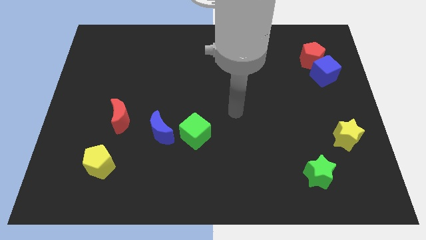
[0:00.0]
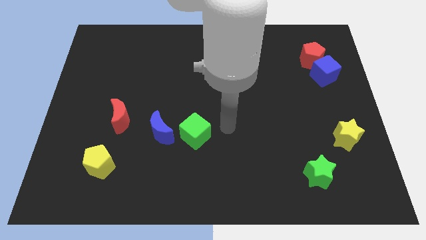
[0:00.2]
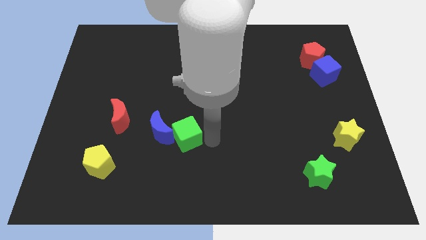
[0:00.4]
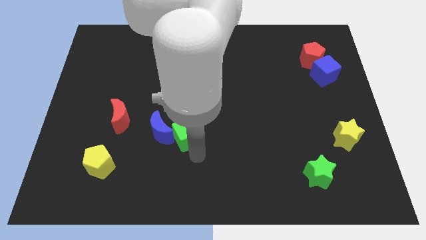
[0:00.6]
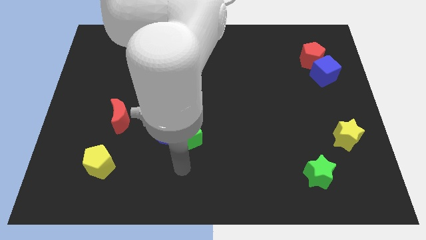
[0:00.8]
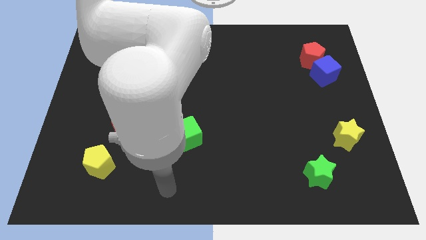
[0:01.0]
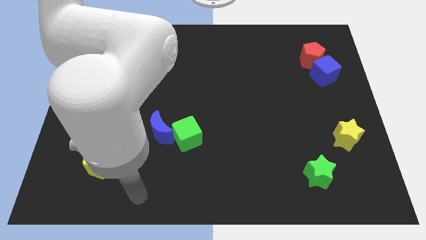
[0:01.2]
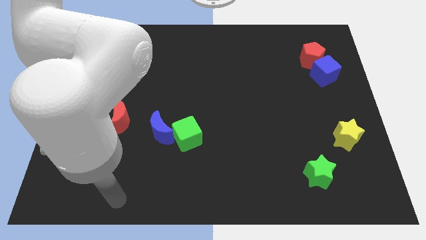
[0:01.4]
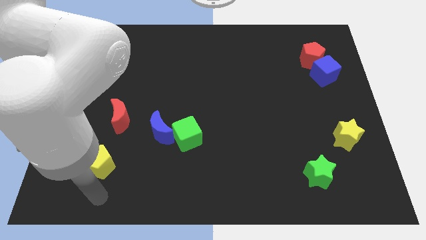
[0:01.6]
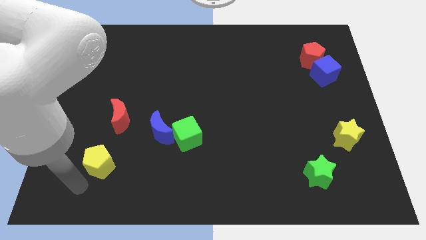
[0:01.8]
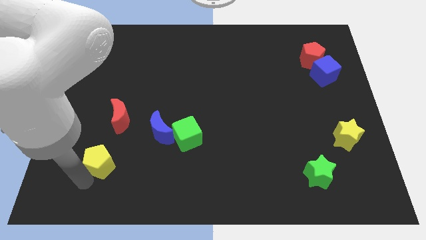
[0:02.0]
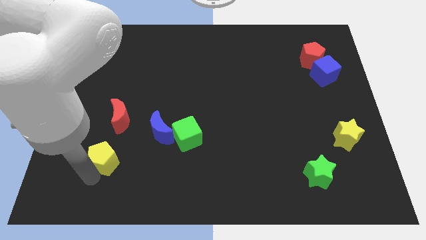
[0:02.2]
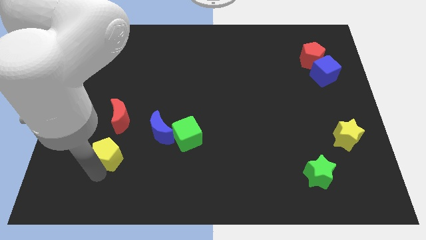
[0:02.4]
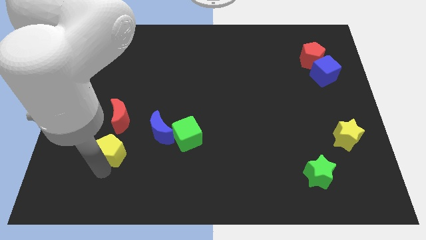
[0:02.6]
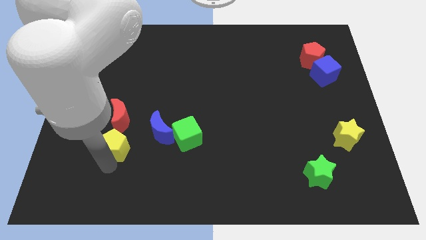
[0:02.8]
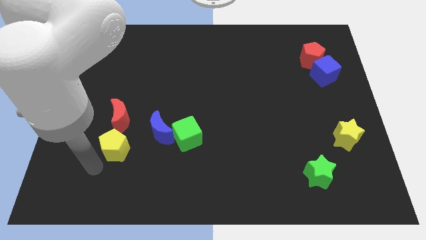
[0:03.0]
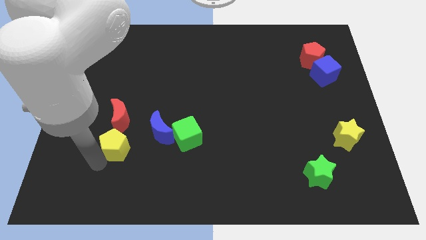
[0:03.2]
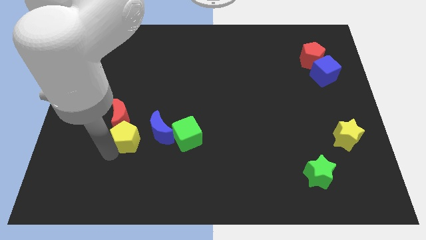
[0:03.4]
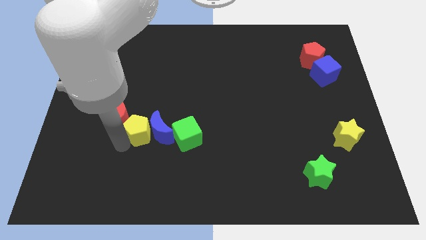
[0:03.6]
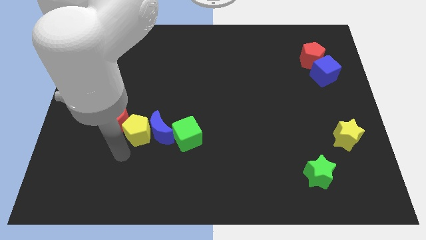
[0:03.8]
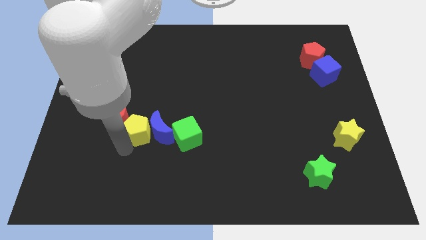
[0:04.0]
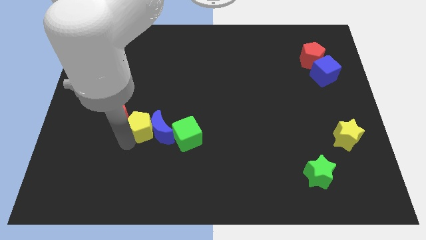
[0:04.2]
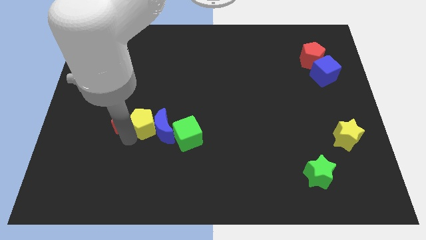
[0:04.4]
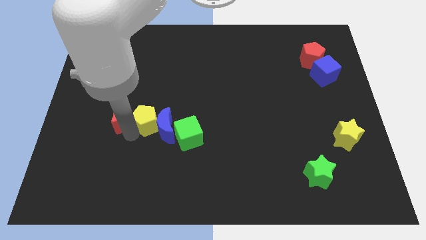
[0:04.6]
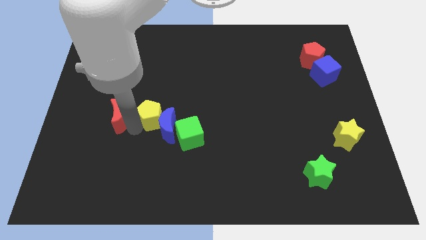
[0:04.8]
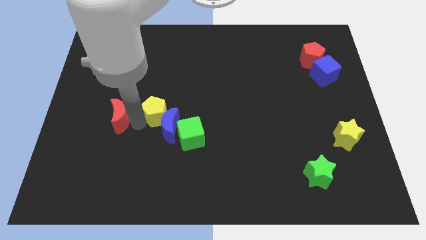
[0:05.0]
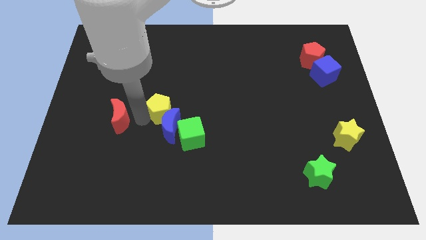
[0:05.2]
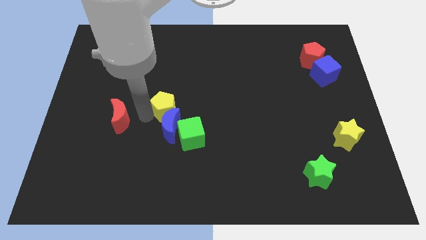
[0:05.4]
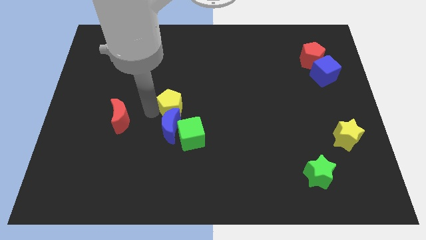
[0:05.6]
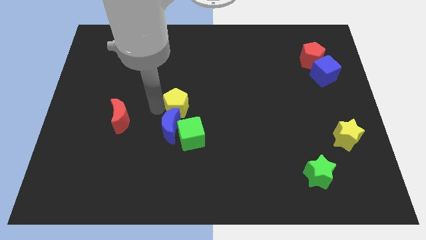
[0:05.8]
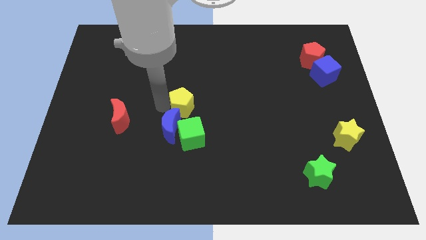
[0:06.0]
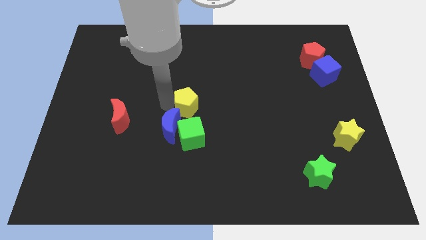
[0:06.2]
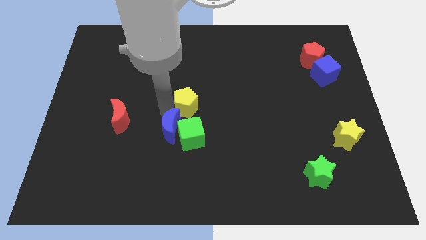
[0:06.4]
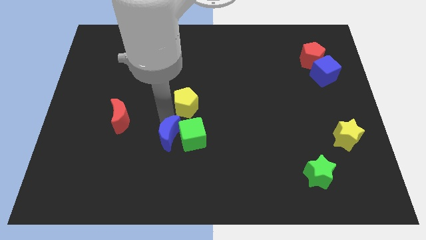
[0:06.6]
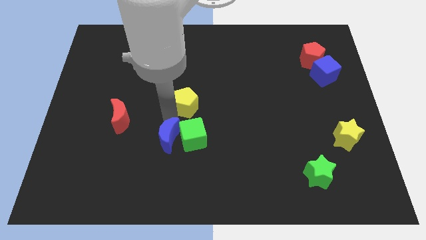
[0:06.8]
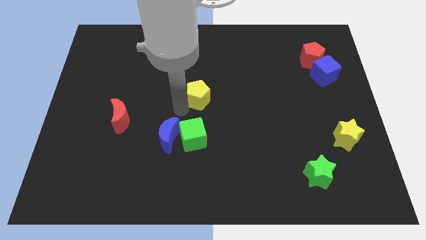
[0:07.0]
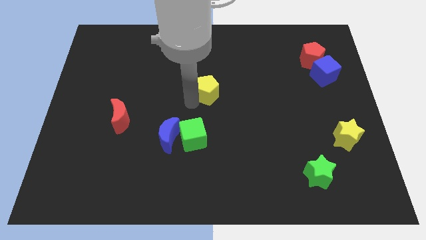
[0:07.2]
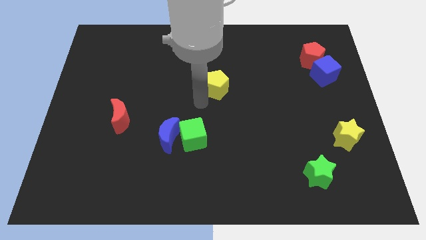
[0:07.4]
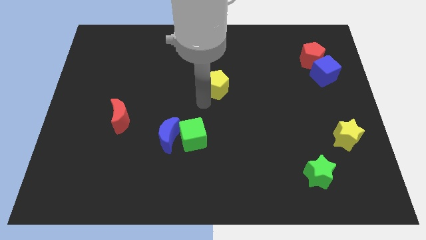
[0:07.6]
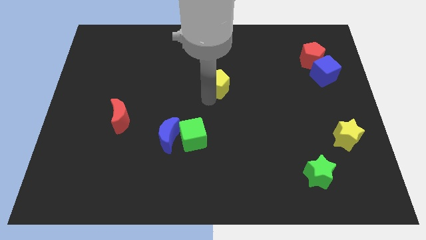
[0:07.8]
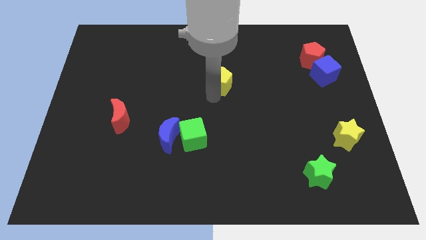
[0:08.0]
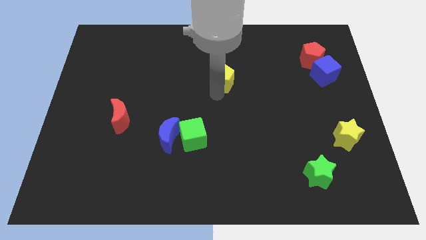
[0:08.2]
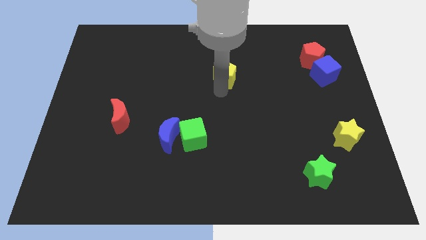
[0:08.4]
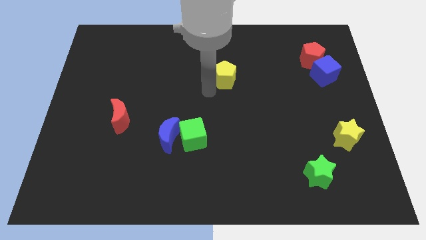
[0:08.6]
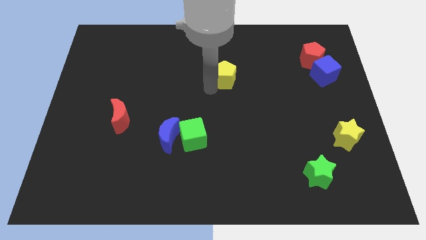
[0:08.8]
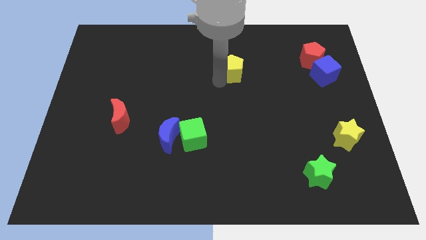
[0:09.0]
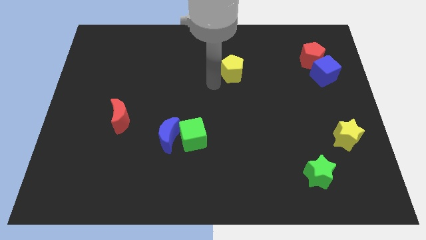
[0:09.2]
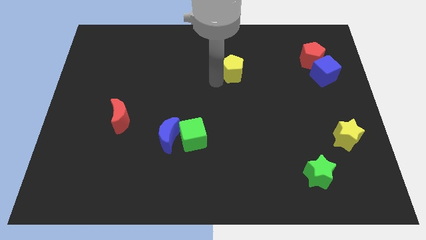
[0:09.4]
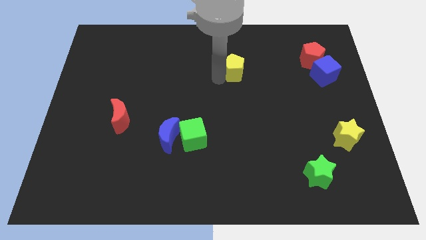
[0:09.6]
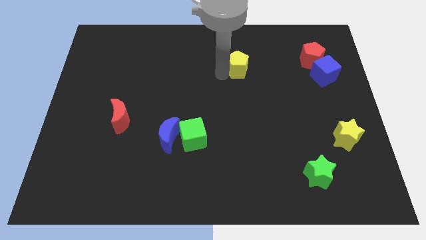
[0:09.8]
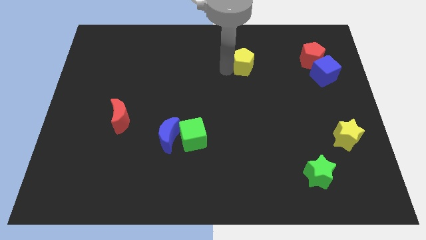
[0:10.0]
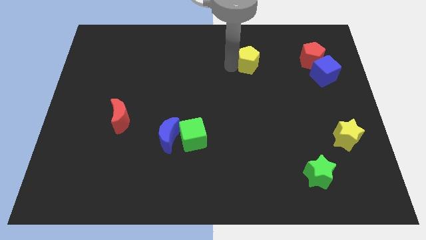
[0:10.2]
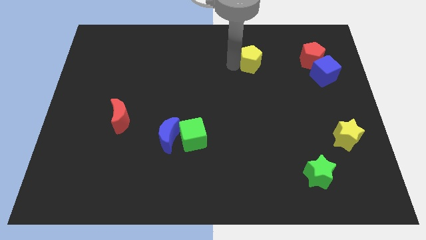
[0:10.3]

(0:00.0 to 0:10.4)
move the yellow pentagon just left of the red pentagon

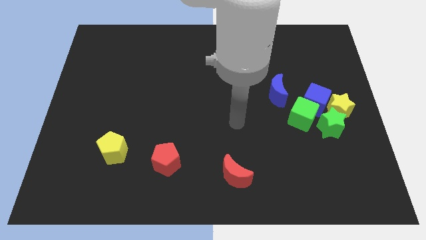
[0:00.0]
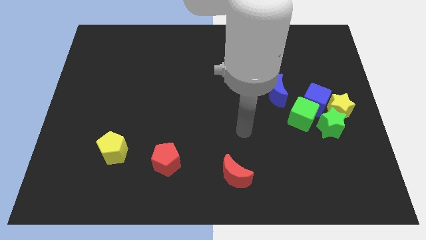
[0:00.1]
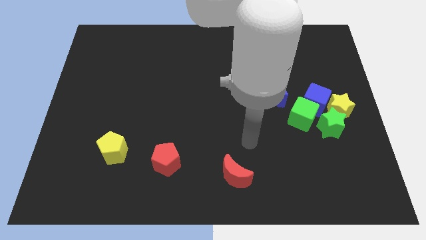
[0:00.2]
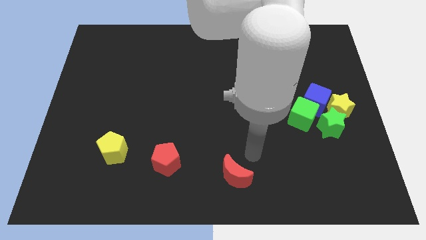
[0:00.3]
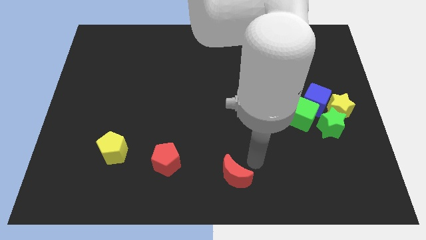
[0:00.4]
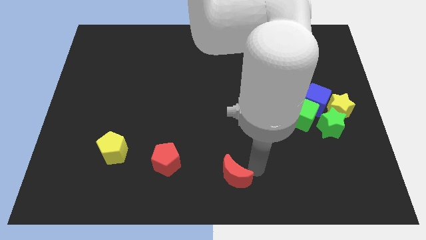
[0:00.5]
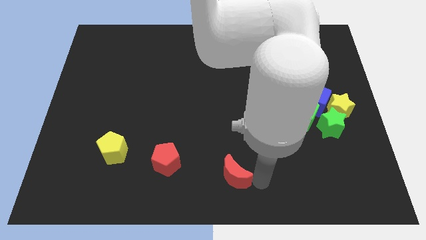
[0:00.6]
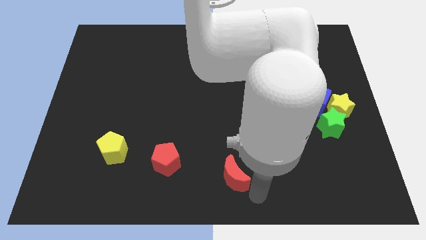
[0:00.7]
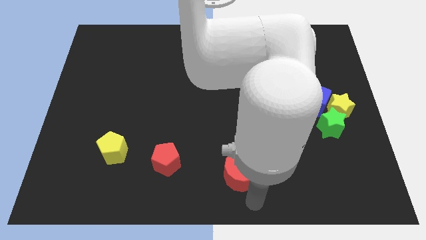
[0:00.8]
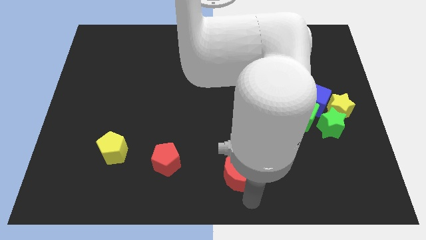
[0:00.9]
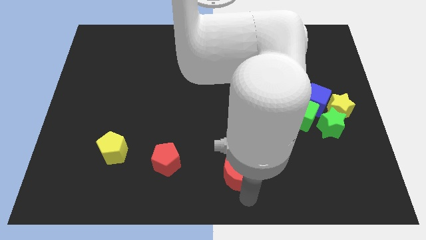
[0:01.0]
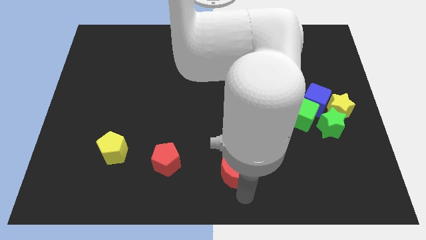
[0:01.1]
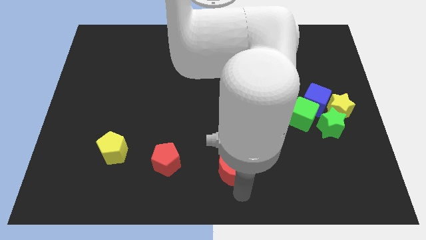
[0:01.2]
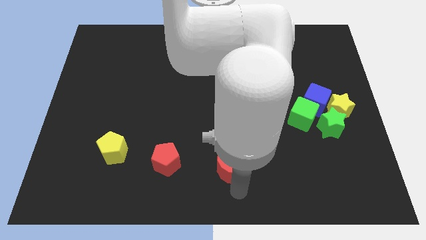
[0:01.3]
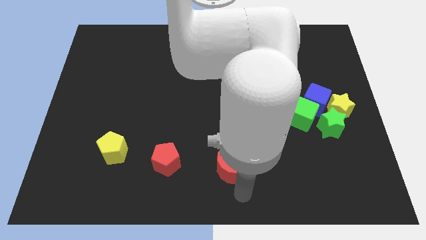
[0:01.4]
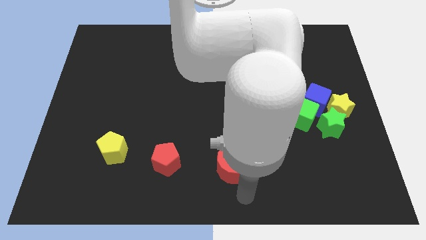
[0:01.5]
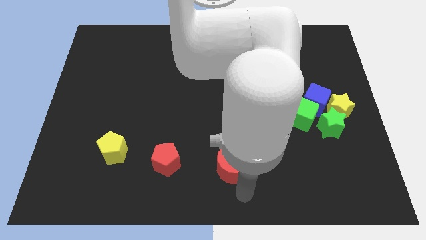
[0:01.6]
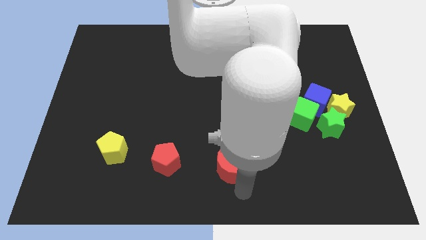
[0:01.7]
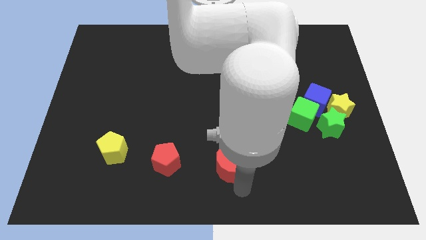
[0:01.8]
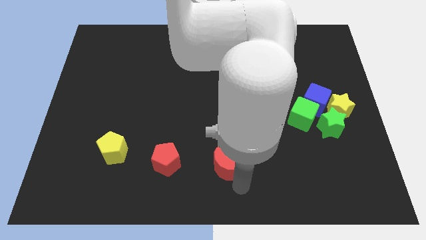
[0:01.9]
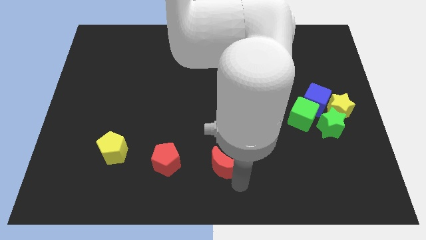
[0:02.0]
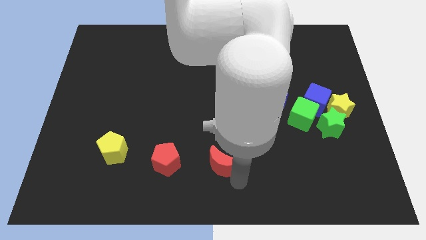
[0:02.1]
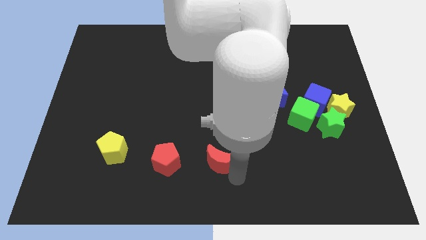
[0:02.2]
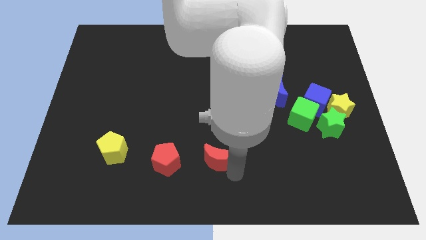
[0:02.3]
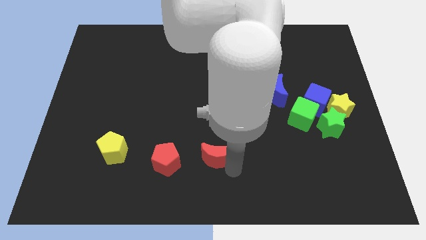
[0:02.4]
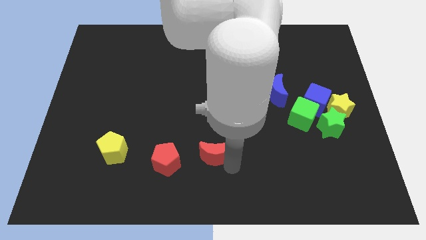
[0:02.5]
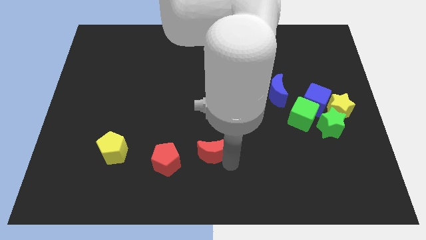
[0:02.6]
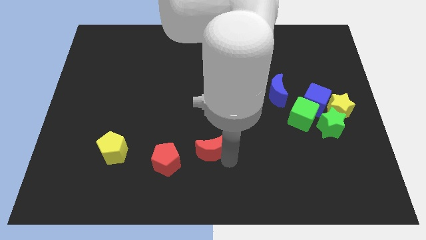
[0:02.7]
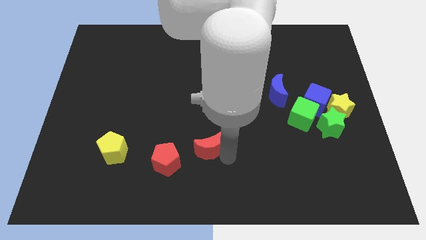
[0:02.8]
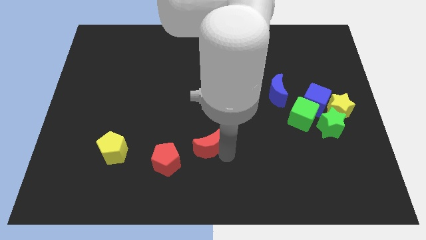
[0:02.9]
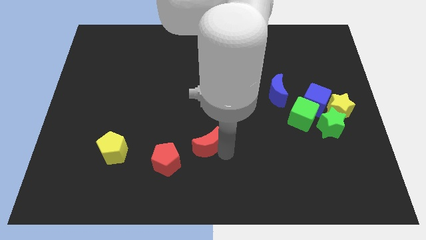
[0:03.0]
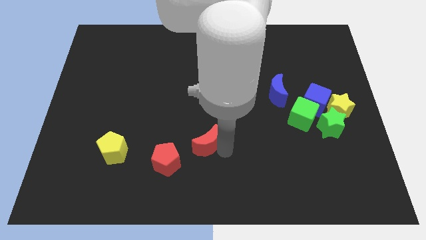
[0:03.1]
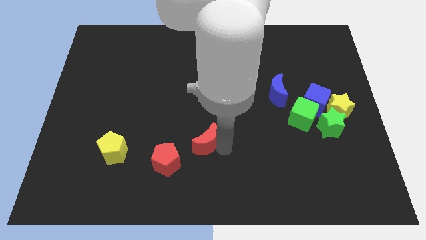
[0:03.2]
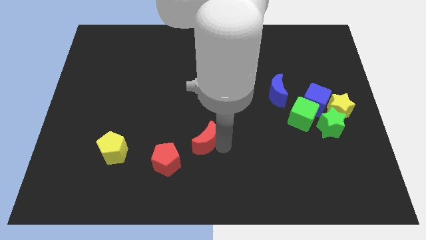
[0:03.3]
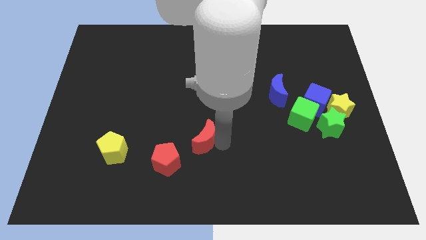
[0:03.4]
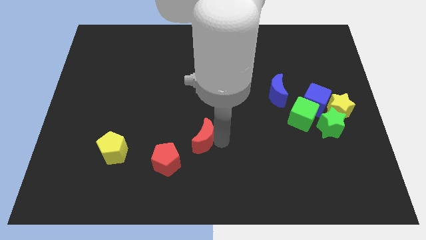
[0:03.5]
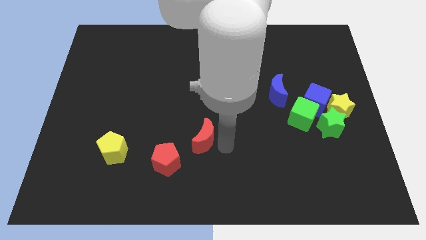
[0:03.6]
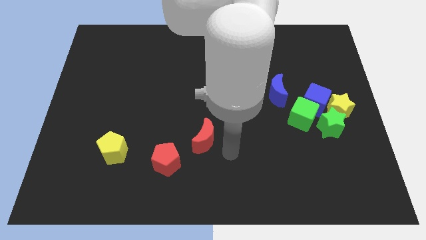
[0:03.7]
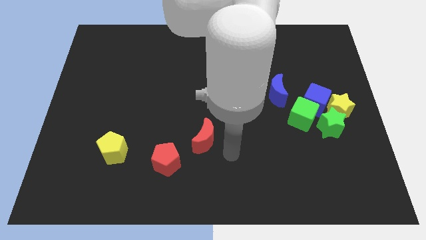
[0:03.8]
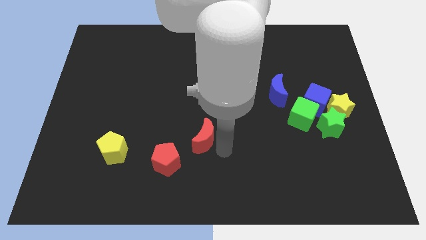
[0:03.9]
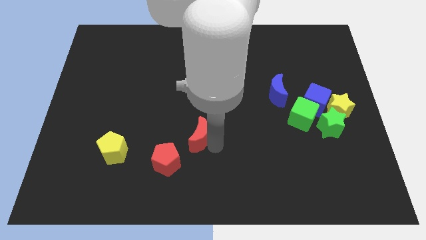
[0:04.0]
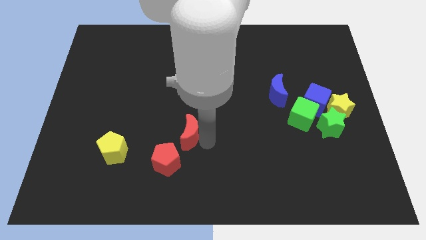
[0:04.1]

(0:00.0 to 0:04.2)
push the red moon to the top side of the red pentagon
